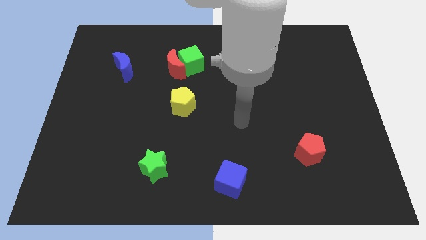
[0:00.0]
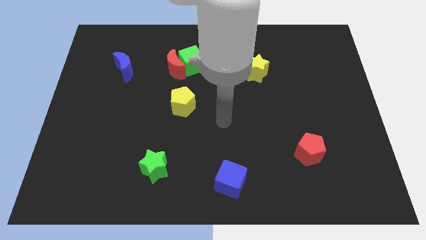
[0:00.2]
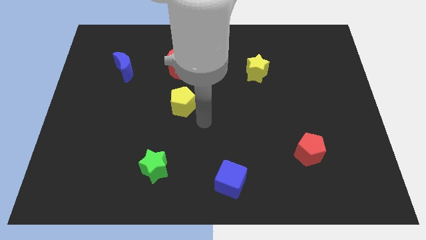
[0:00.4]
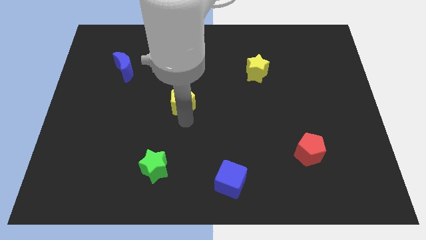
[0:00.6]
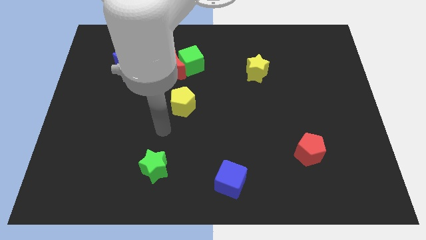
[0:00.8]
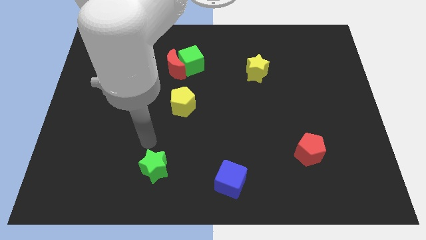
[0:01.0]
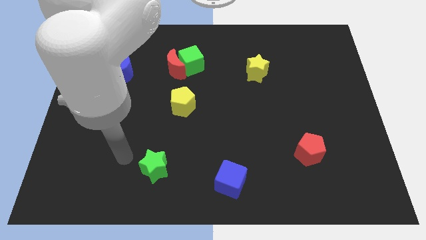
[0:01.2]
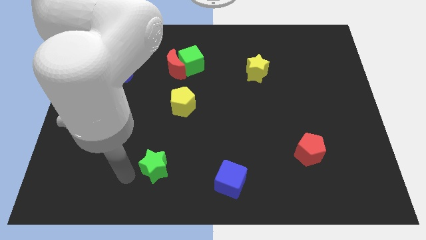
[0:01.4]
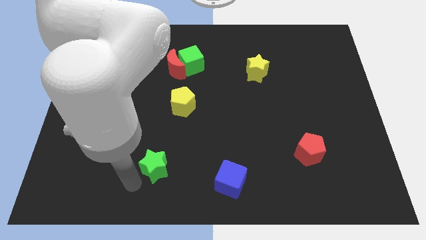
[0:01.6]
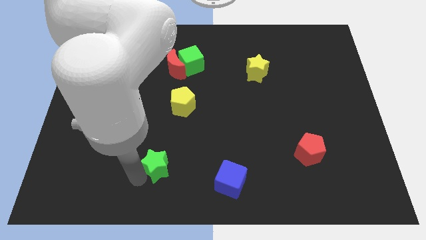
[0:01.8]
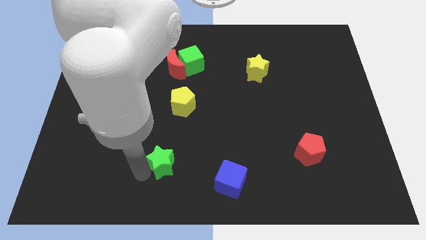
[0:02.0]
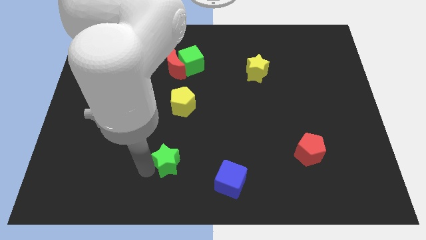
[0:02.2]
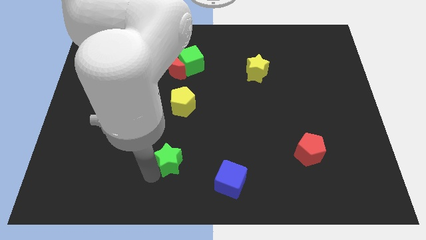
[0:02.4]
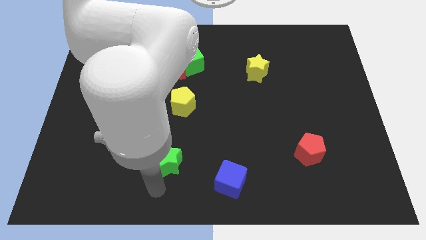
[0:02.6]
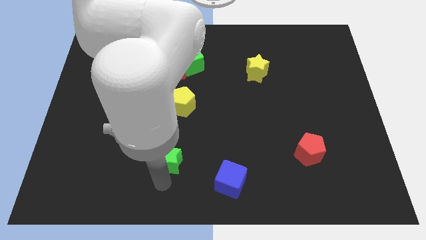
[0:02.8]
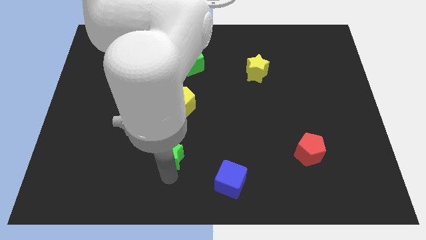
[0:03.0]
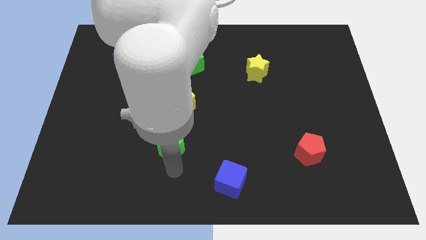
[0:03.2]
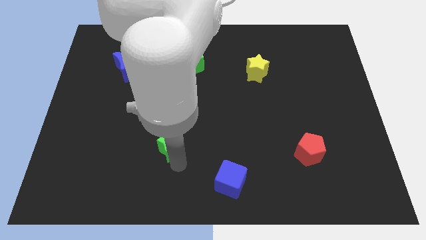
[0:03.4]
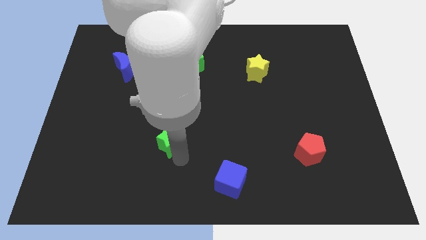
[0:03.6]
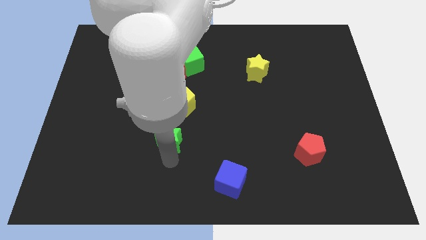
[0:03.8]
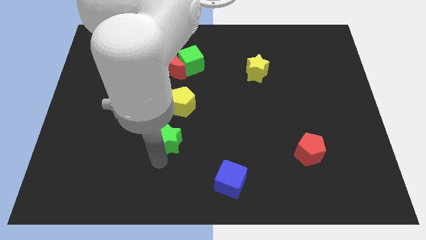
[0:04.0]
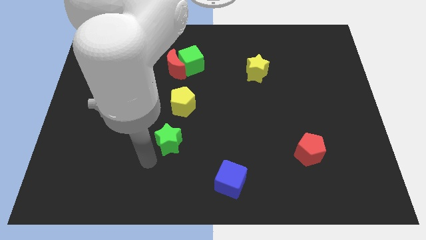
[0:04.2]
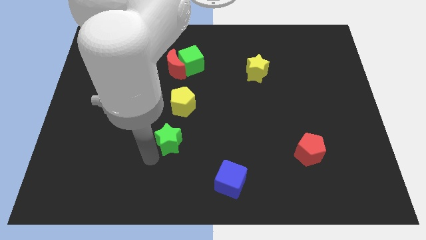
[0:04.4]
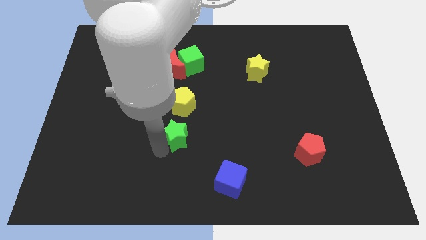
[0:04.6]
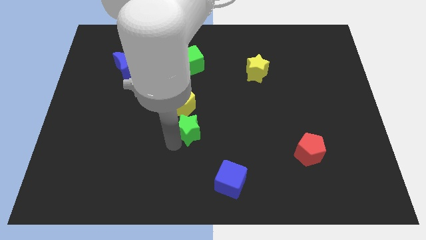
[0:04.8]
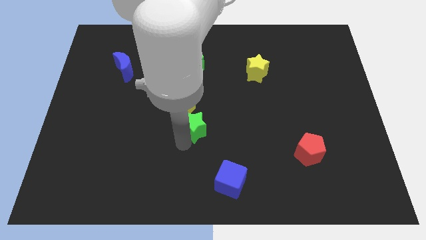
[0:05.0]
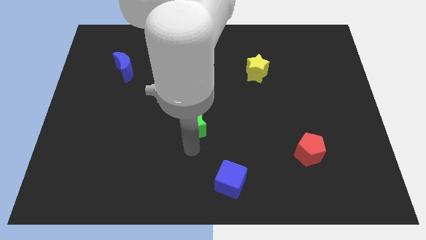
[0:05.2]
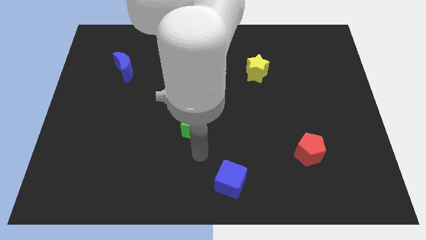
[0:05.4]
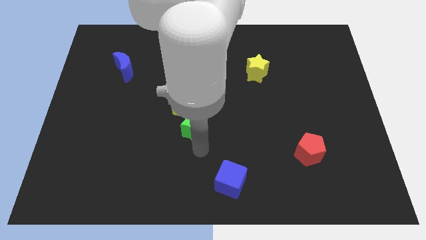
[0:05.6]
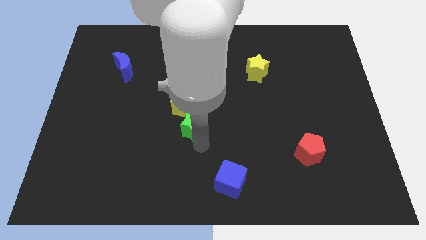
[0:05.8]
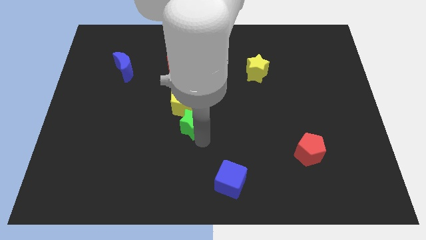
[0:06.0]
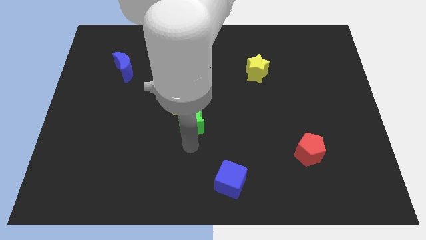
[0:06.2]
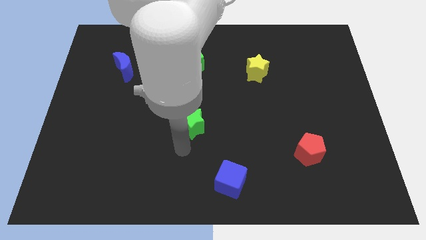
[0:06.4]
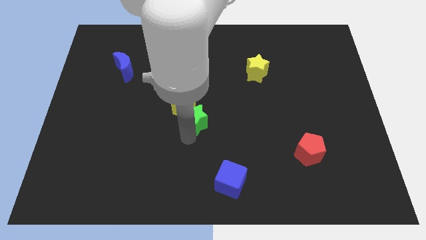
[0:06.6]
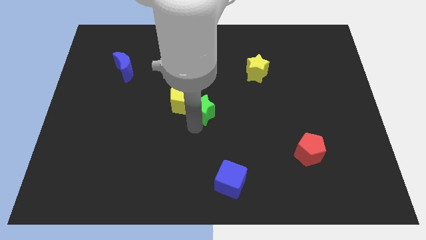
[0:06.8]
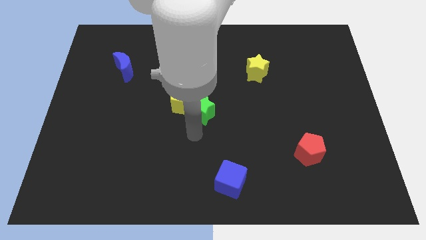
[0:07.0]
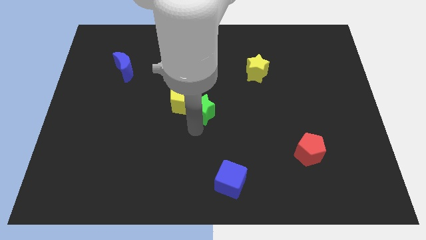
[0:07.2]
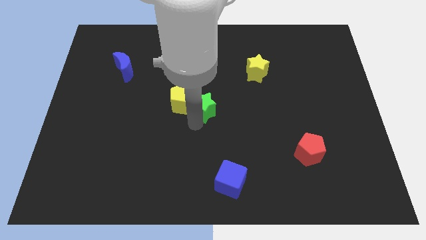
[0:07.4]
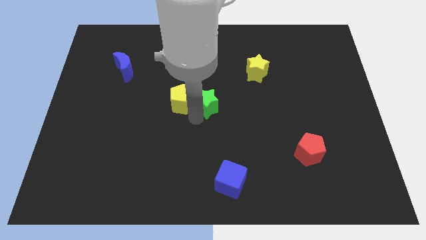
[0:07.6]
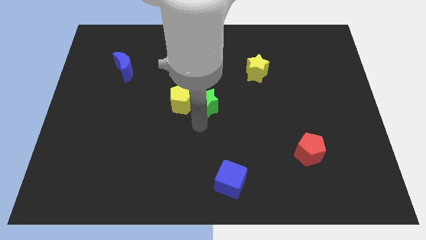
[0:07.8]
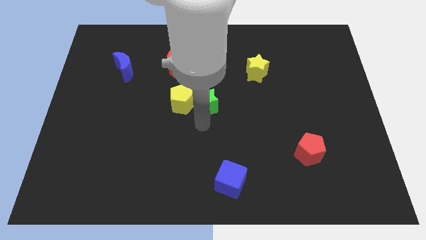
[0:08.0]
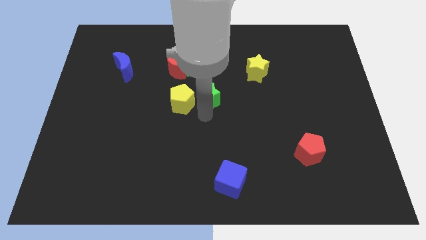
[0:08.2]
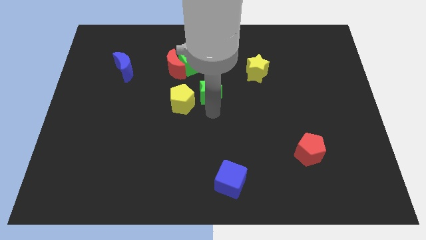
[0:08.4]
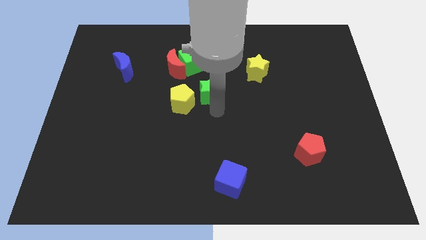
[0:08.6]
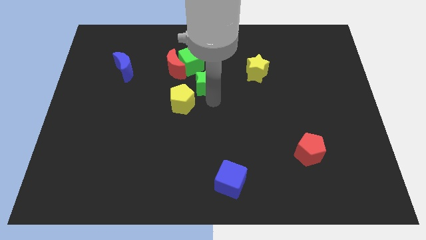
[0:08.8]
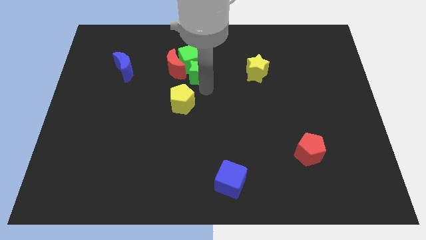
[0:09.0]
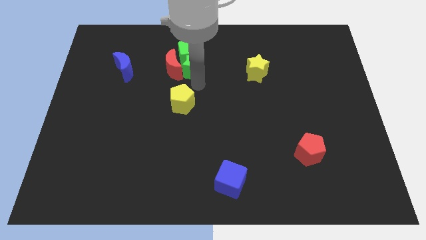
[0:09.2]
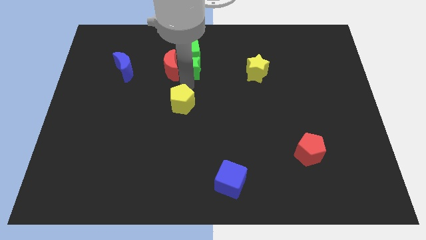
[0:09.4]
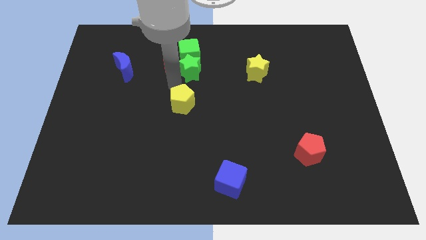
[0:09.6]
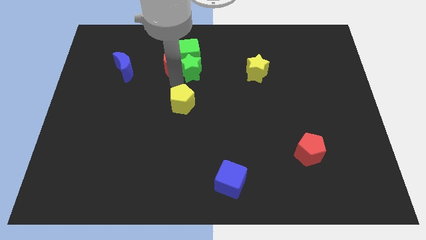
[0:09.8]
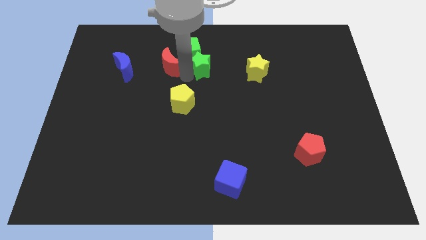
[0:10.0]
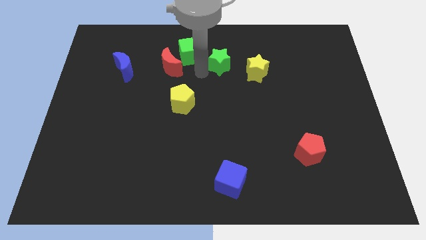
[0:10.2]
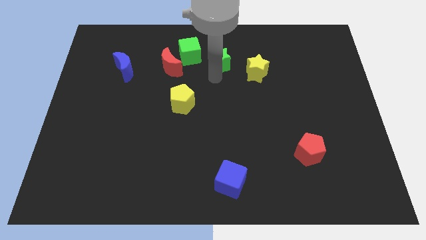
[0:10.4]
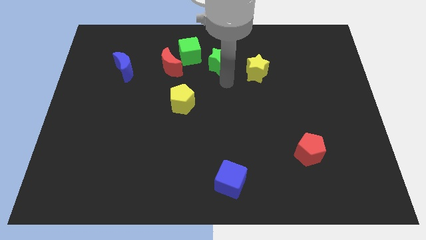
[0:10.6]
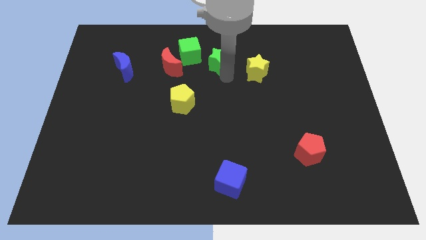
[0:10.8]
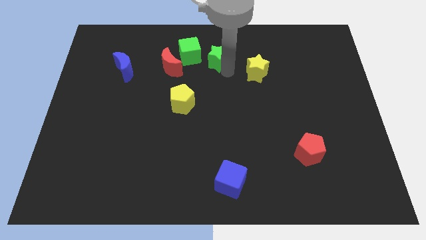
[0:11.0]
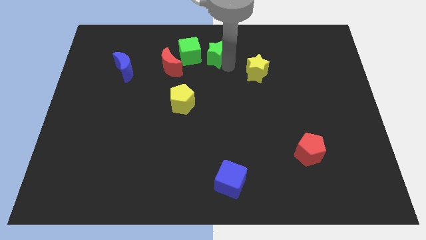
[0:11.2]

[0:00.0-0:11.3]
move the green star to the towards your base
